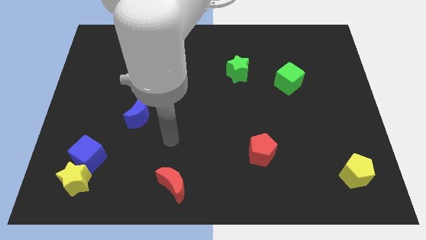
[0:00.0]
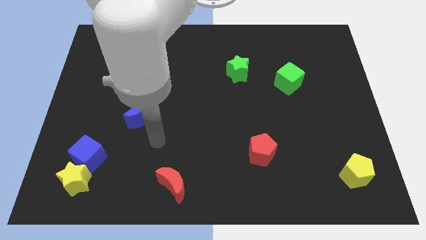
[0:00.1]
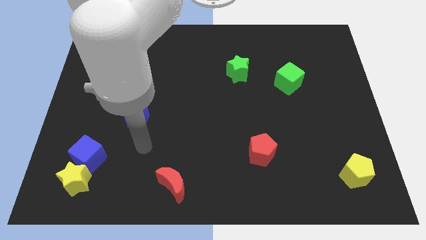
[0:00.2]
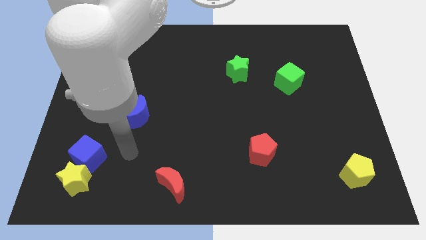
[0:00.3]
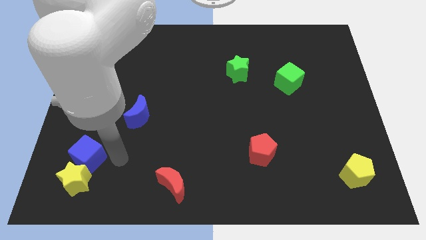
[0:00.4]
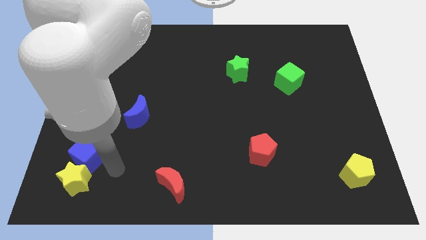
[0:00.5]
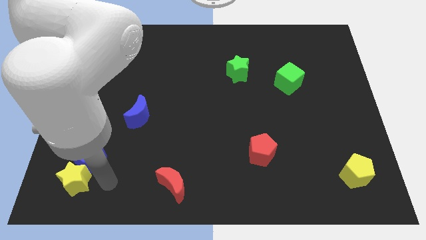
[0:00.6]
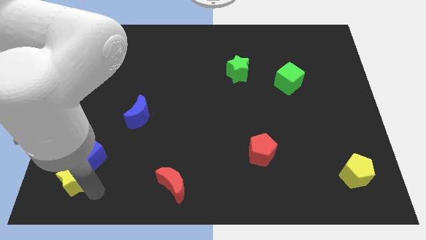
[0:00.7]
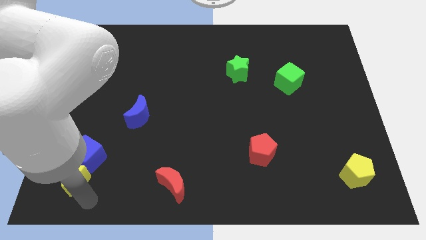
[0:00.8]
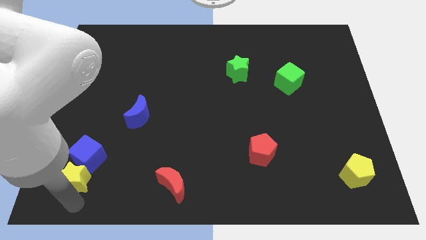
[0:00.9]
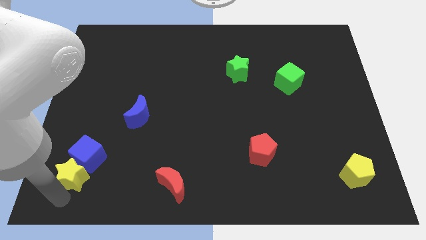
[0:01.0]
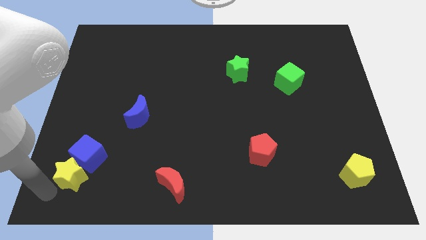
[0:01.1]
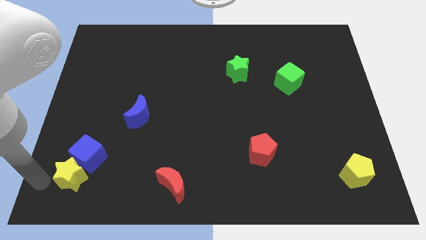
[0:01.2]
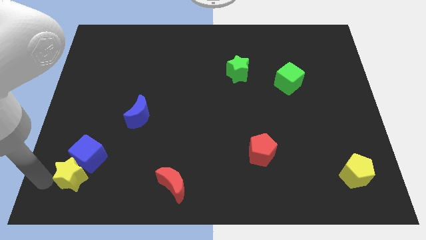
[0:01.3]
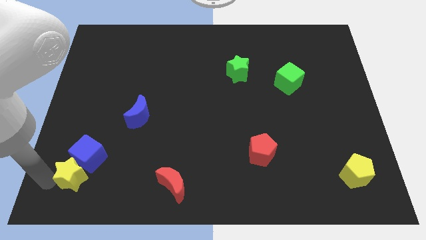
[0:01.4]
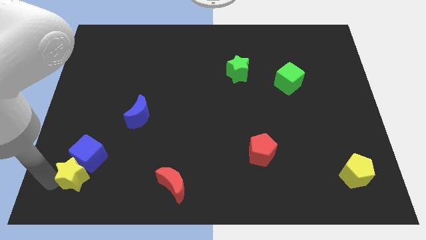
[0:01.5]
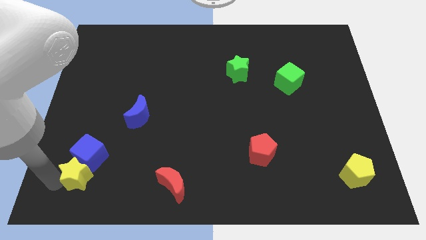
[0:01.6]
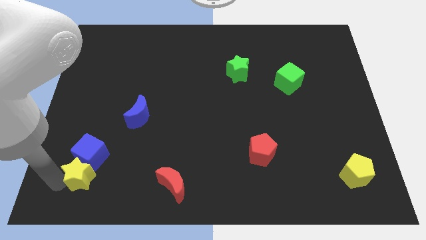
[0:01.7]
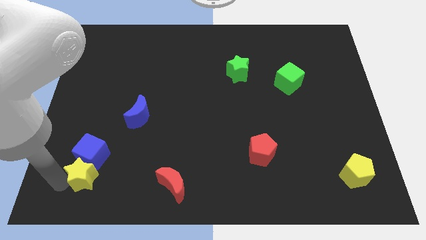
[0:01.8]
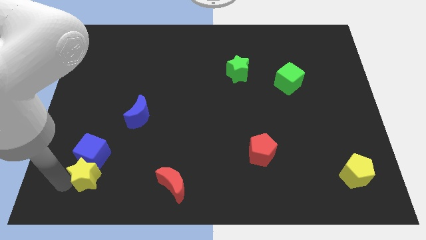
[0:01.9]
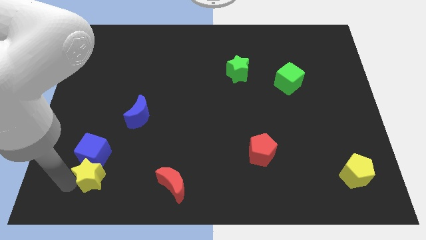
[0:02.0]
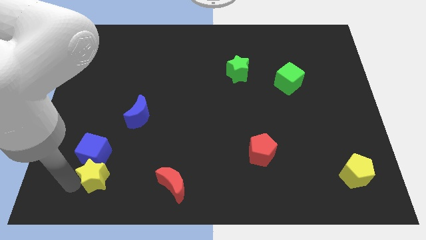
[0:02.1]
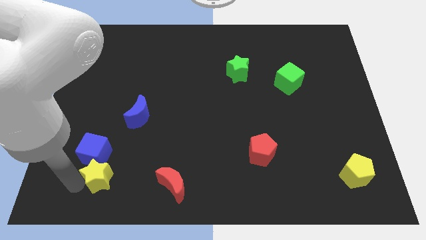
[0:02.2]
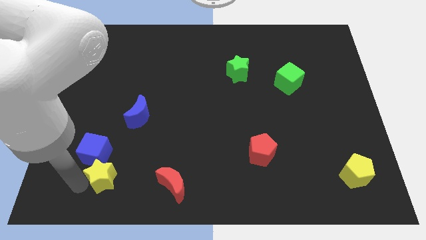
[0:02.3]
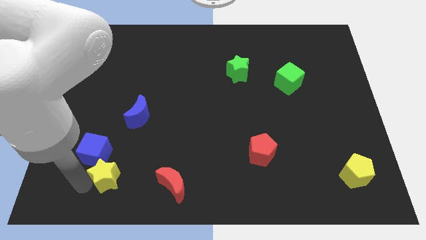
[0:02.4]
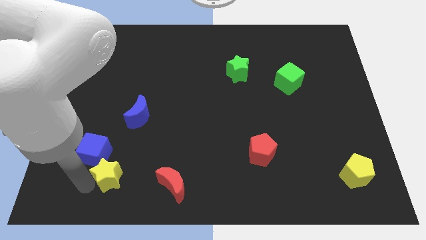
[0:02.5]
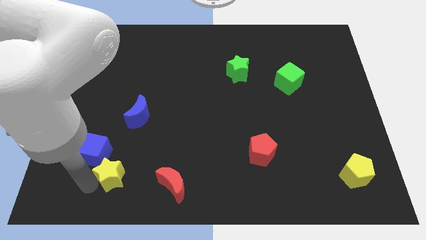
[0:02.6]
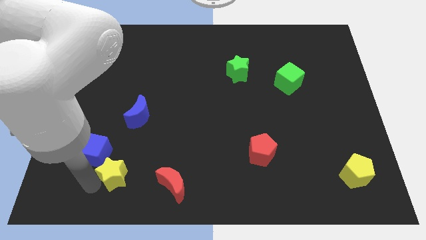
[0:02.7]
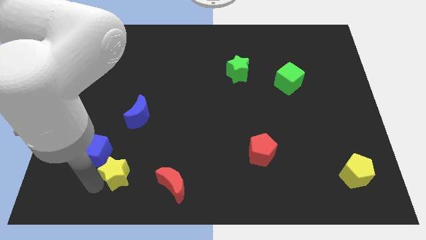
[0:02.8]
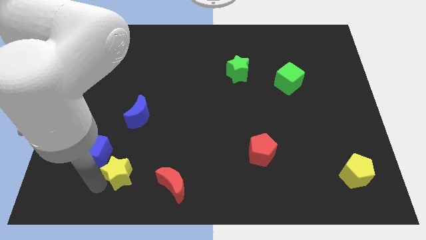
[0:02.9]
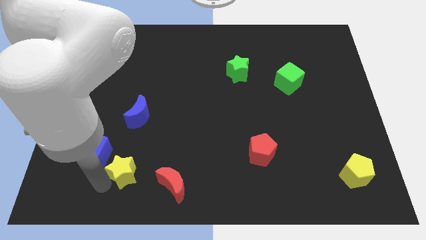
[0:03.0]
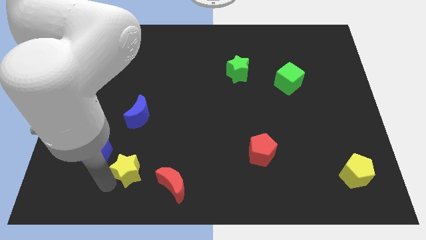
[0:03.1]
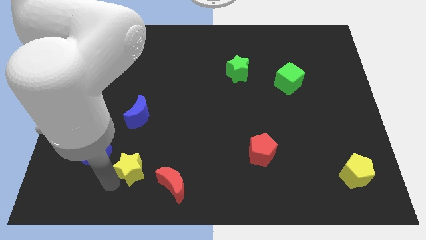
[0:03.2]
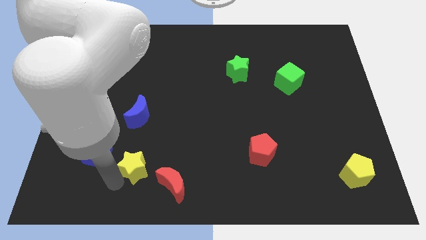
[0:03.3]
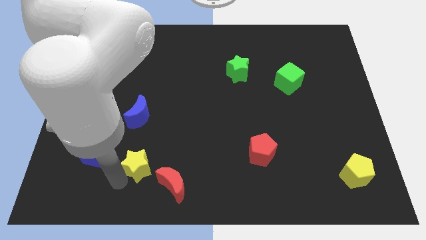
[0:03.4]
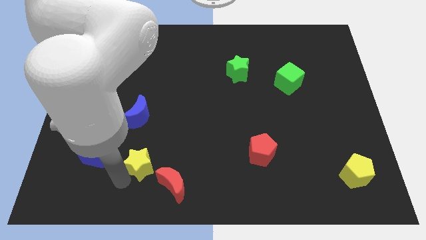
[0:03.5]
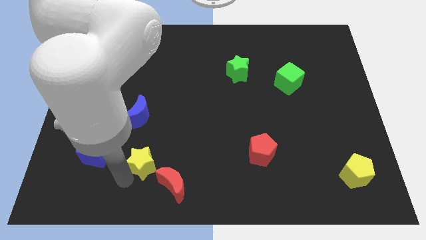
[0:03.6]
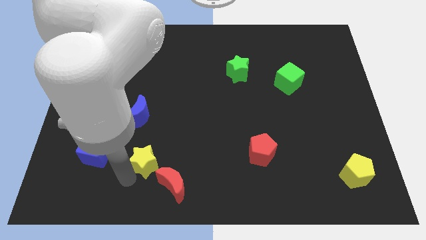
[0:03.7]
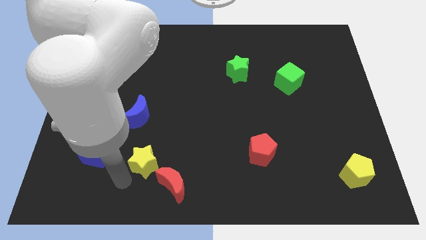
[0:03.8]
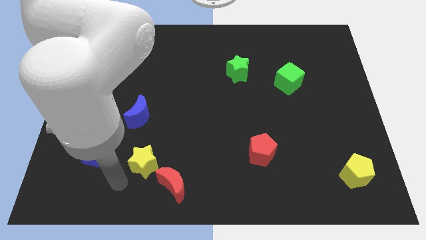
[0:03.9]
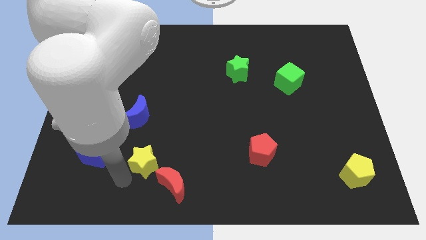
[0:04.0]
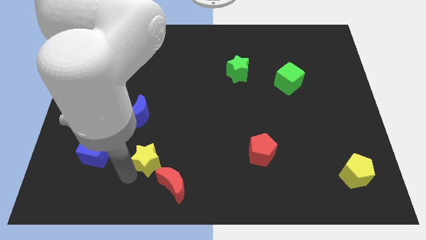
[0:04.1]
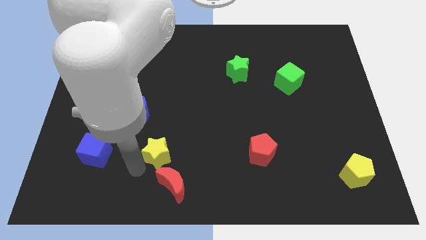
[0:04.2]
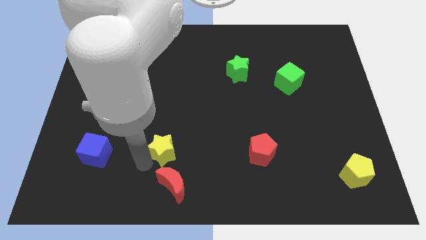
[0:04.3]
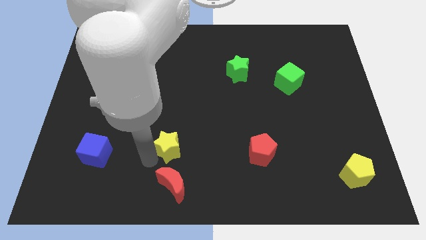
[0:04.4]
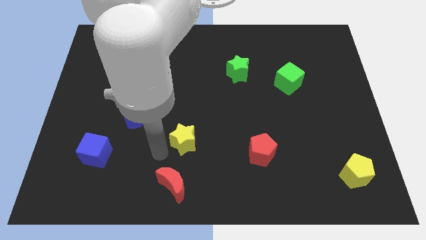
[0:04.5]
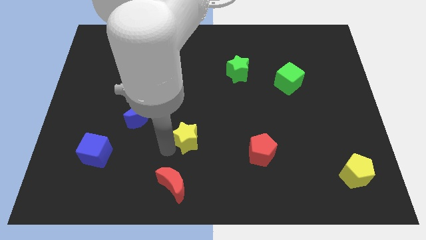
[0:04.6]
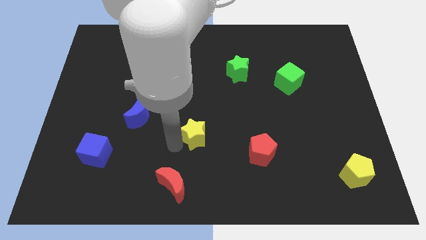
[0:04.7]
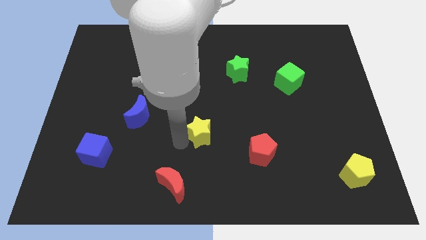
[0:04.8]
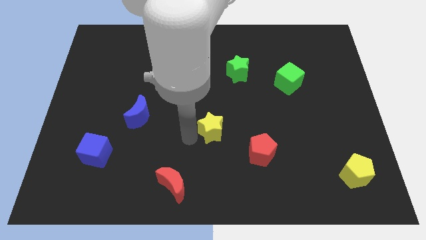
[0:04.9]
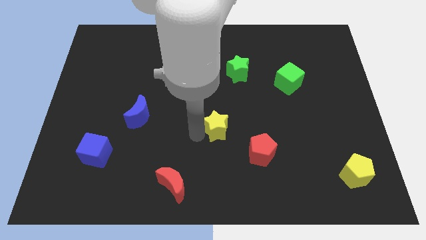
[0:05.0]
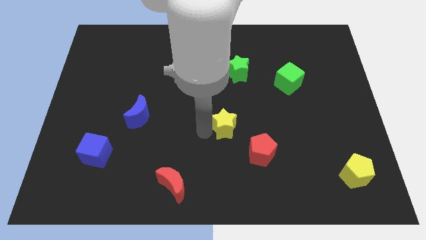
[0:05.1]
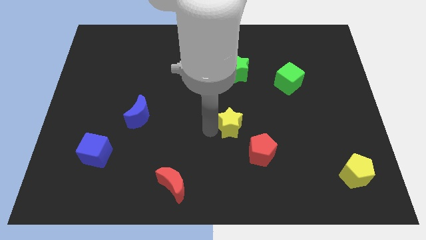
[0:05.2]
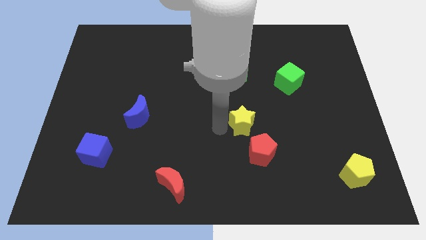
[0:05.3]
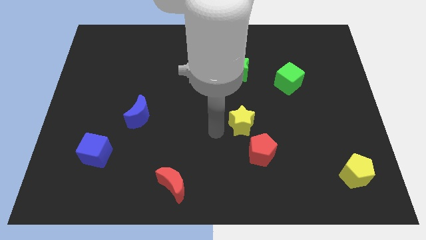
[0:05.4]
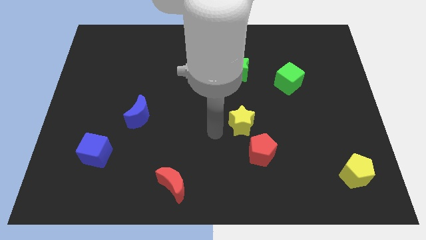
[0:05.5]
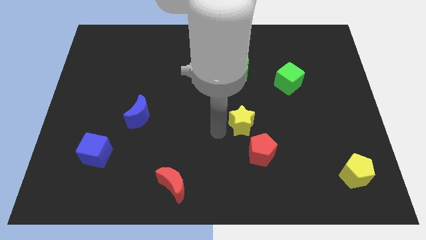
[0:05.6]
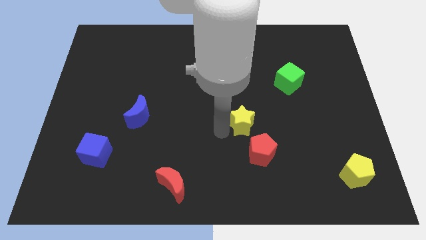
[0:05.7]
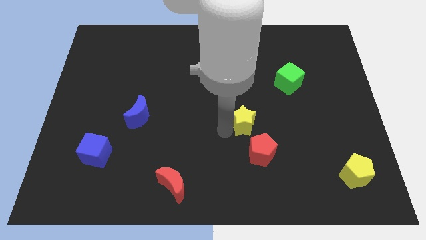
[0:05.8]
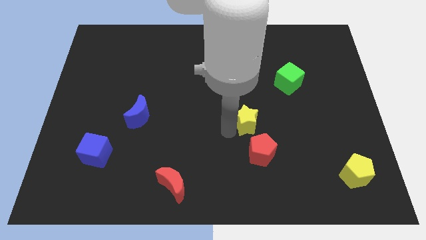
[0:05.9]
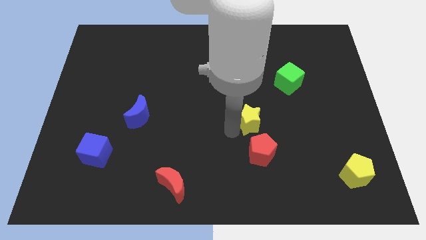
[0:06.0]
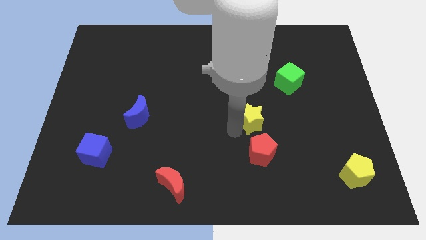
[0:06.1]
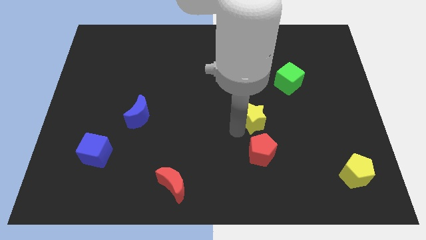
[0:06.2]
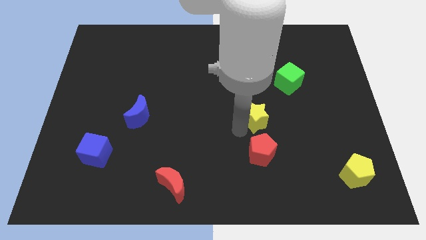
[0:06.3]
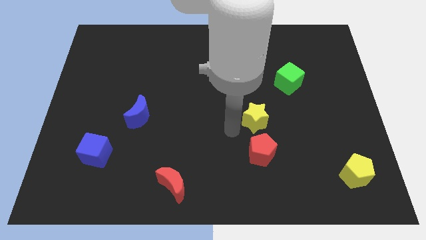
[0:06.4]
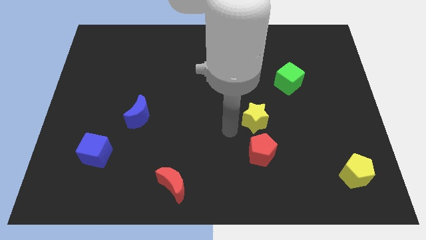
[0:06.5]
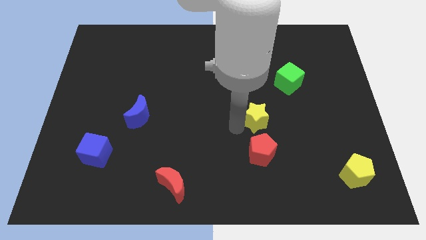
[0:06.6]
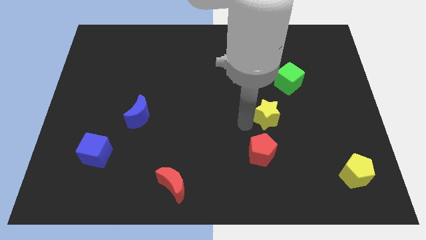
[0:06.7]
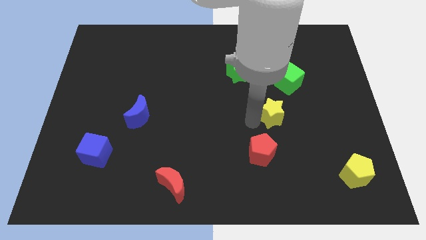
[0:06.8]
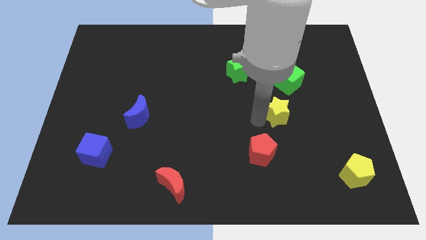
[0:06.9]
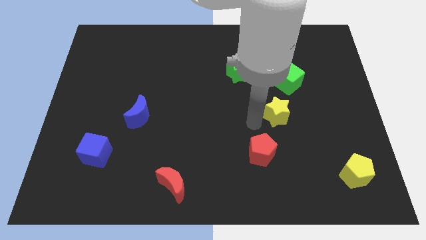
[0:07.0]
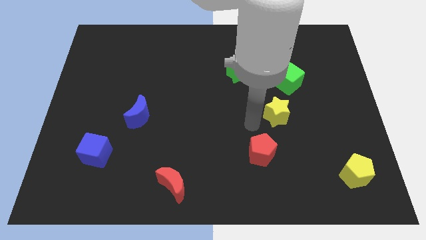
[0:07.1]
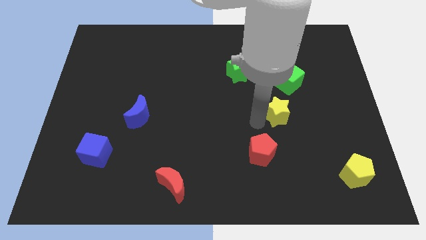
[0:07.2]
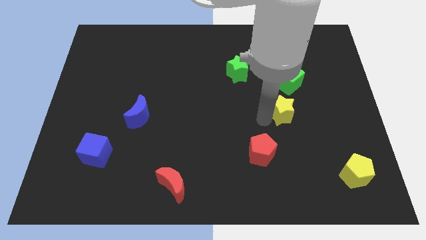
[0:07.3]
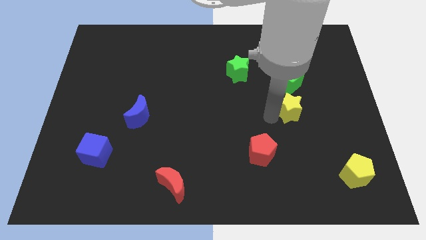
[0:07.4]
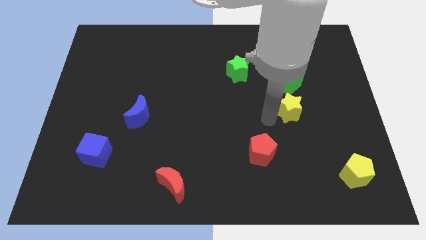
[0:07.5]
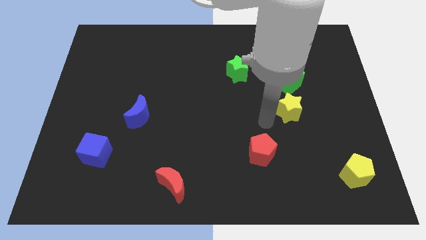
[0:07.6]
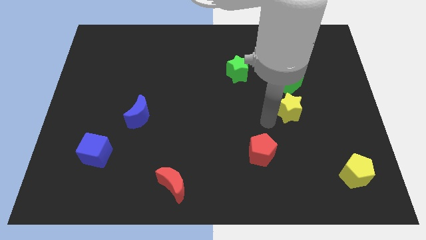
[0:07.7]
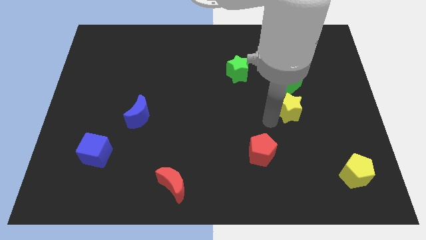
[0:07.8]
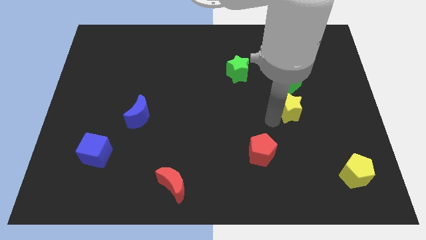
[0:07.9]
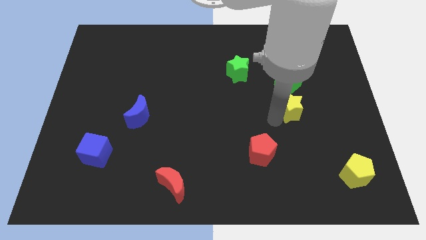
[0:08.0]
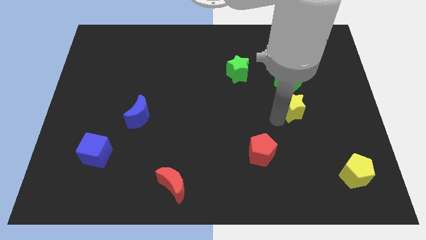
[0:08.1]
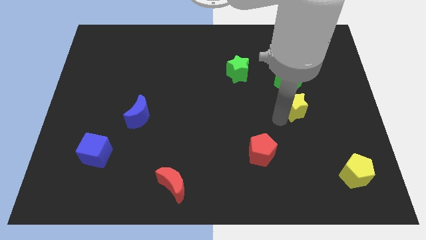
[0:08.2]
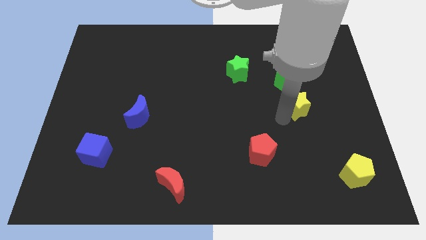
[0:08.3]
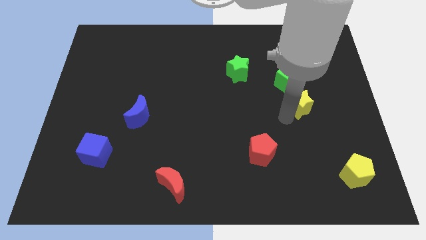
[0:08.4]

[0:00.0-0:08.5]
move the yellow star diagonally down and to the right of the green cube
